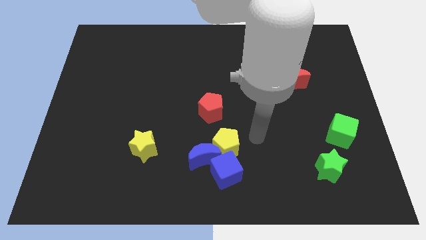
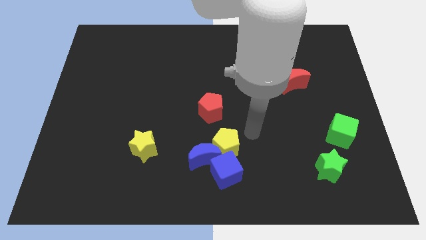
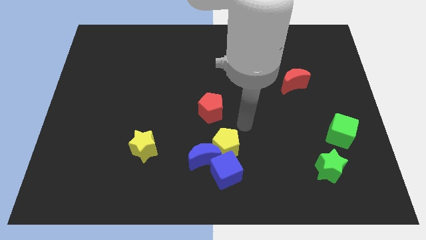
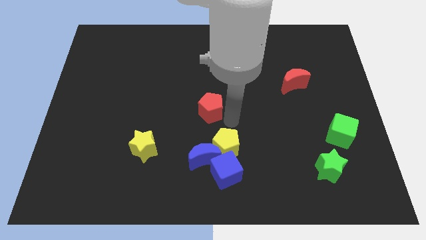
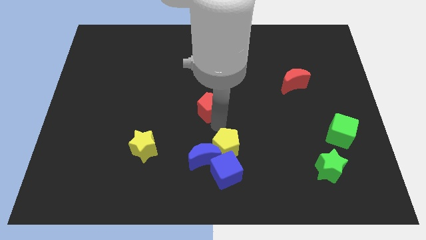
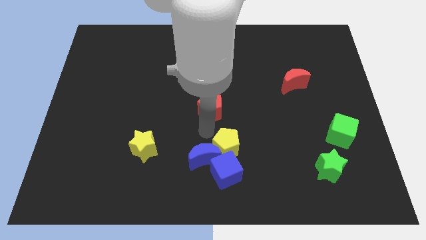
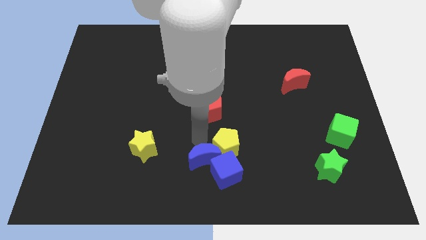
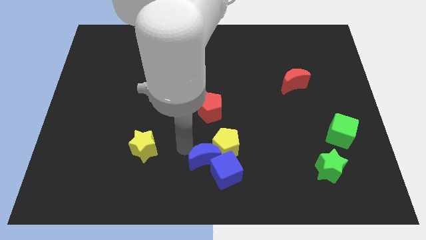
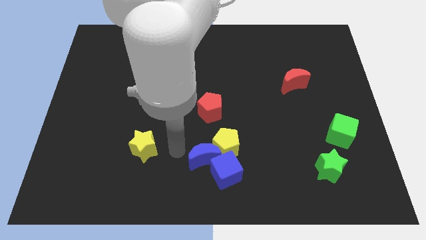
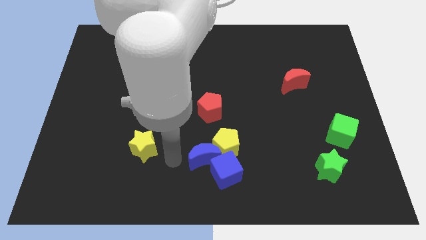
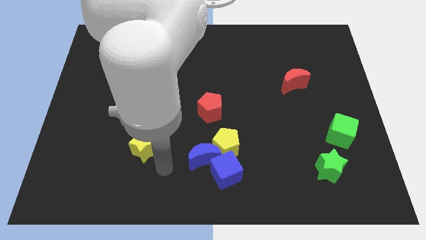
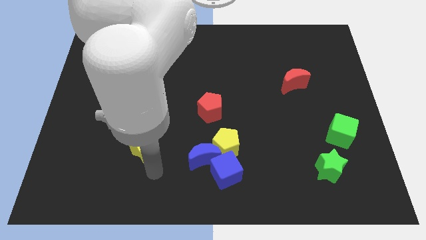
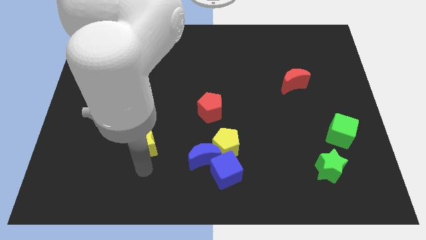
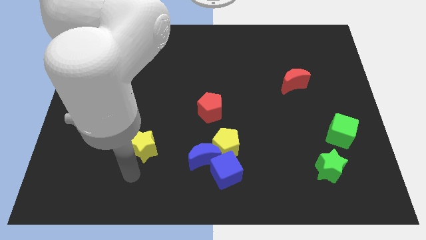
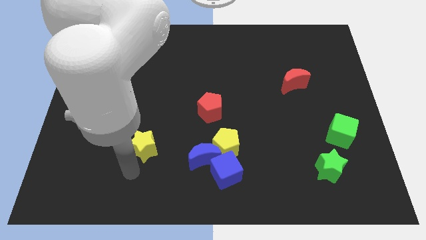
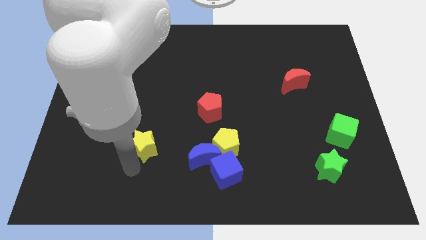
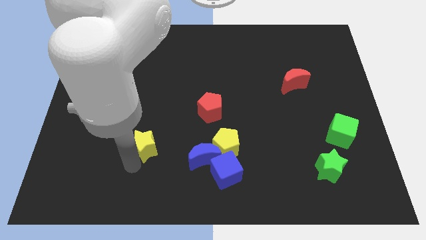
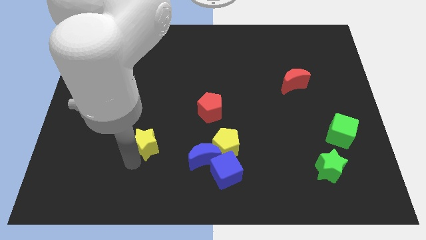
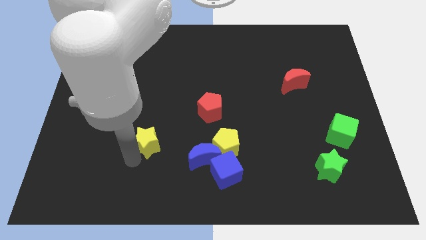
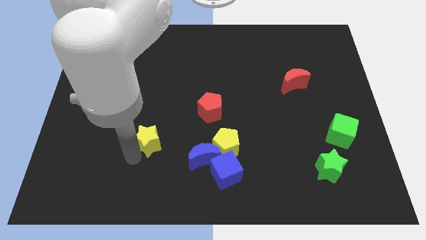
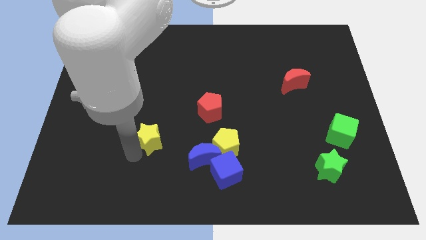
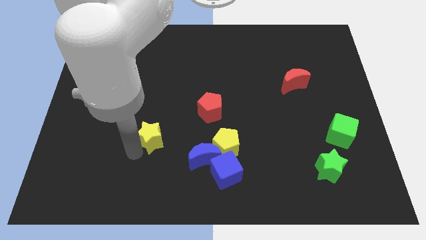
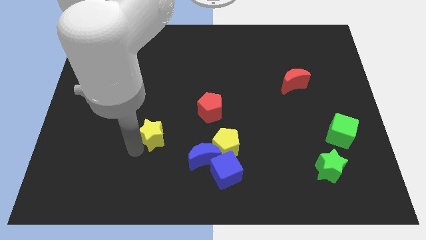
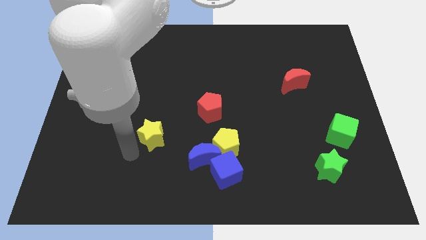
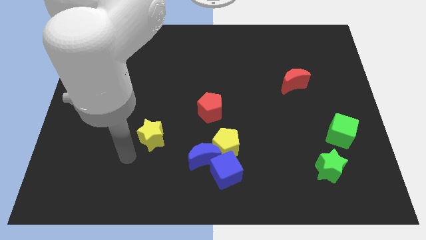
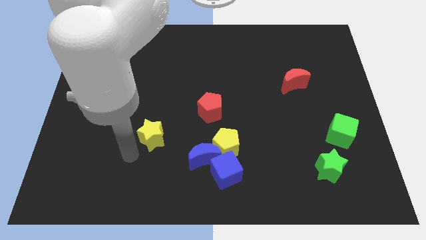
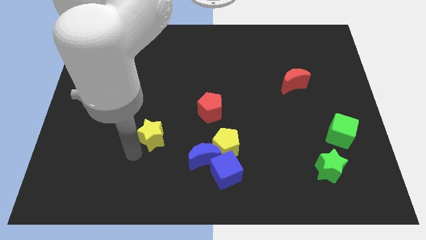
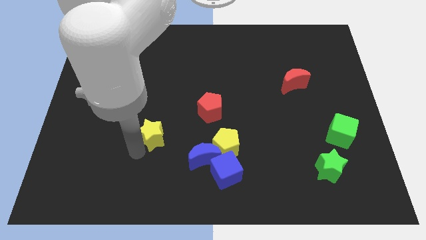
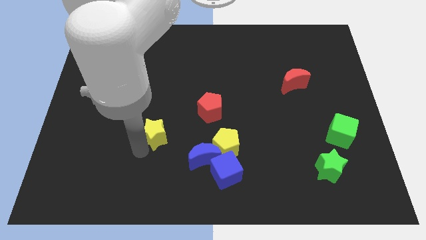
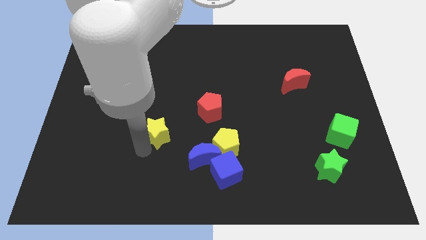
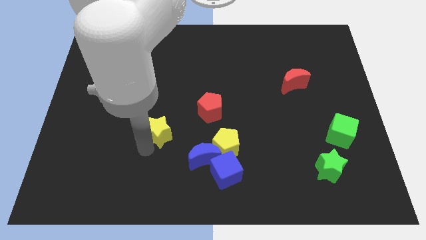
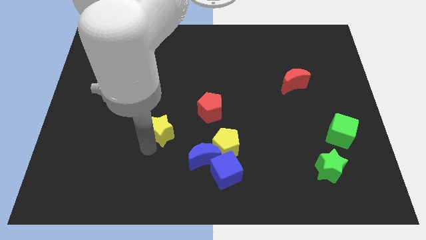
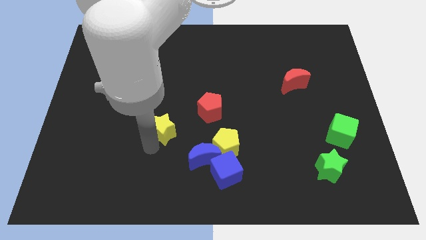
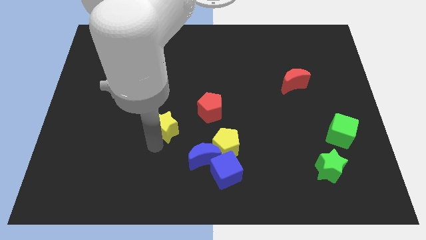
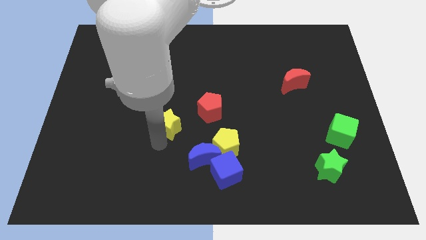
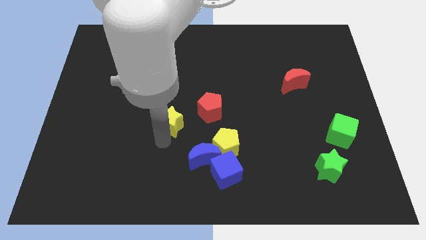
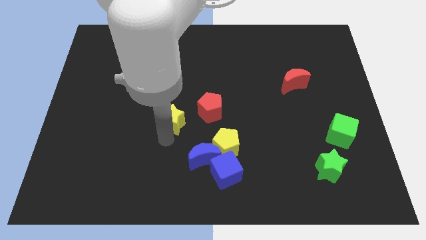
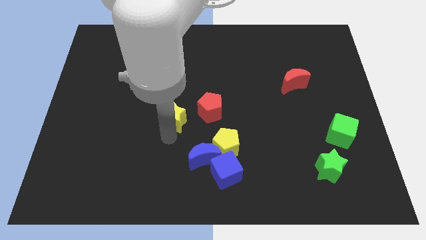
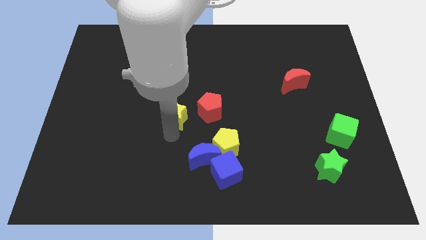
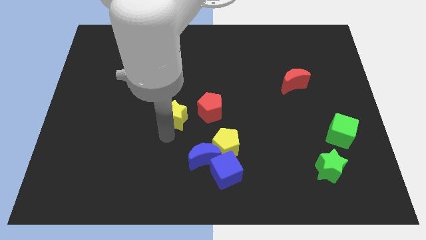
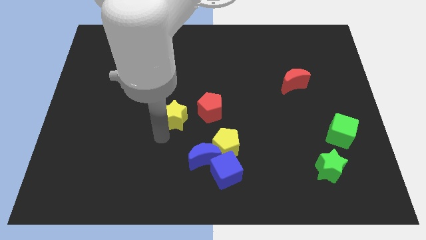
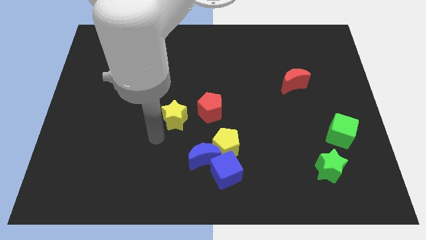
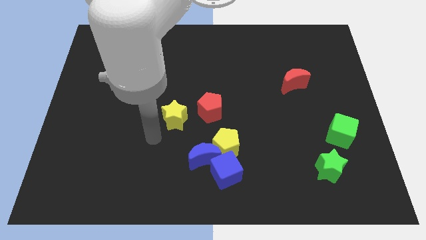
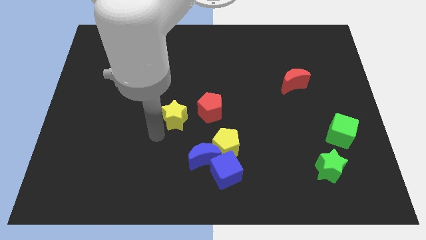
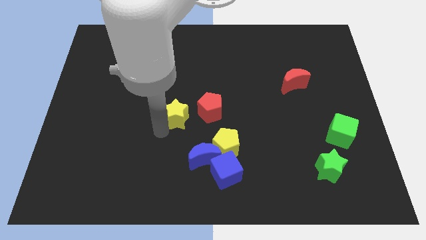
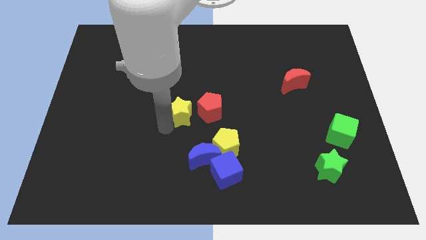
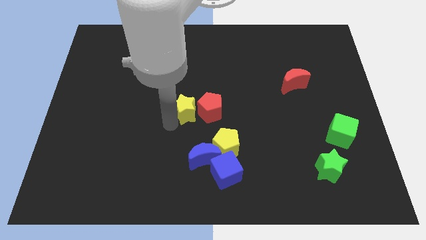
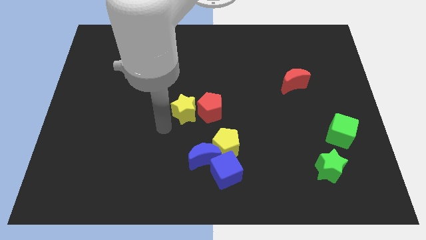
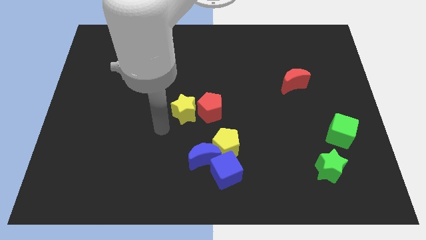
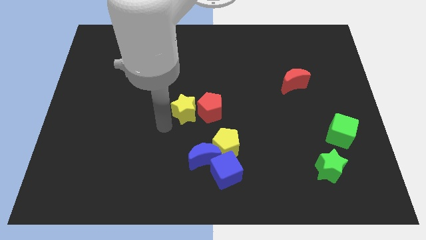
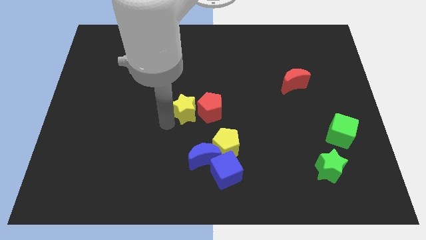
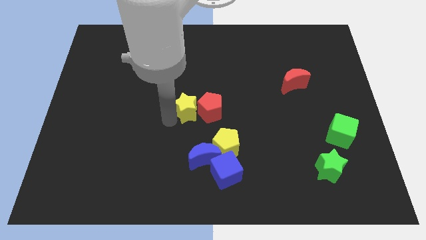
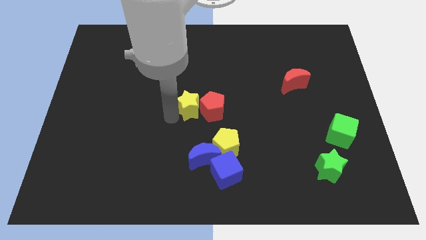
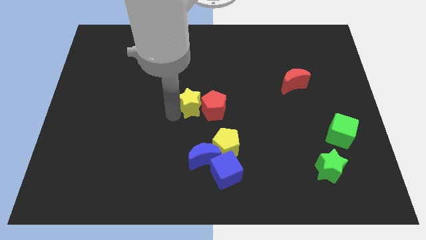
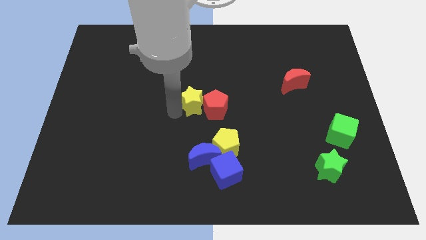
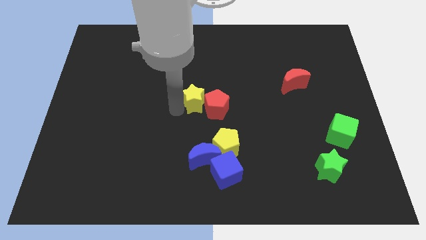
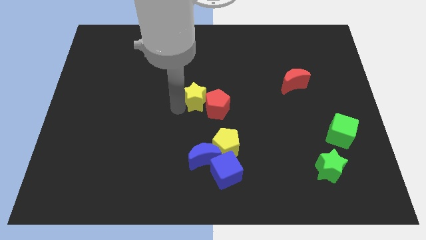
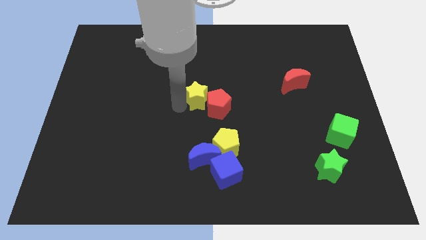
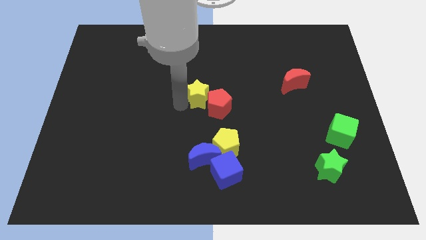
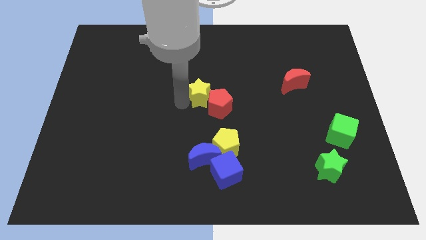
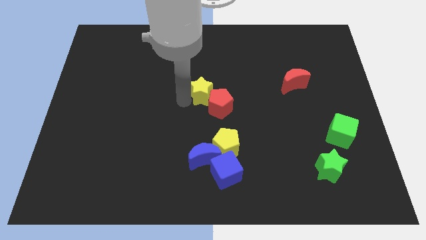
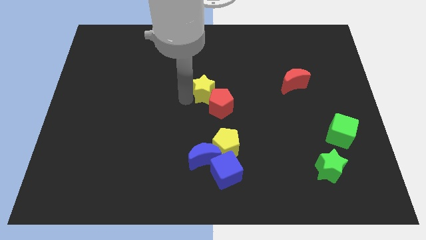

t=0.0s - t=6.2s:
slide the yellow star up and right

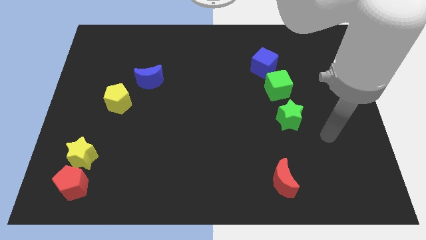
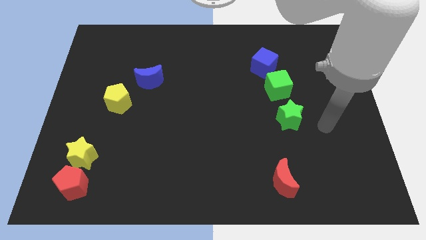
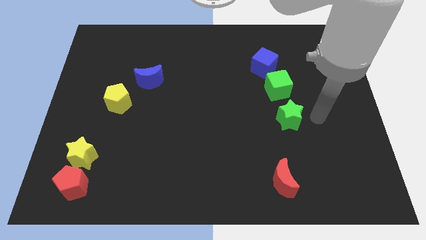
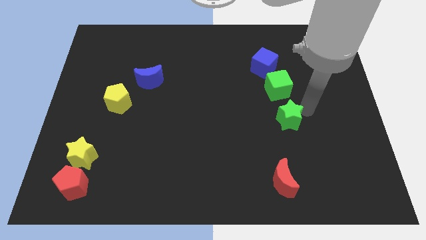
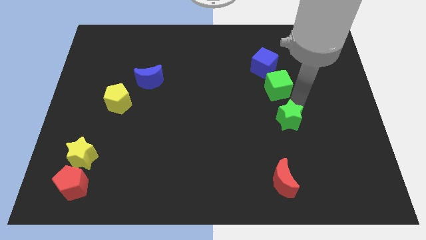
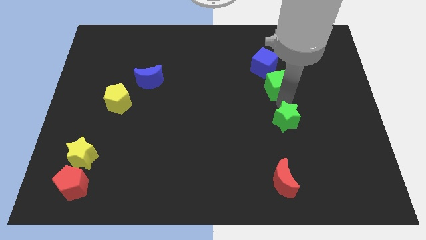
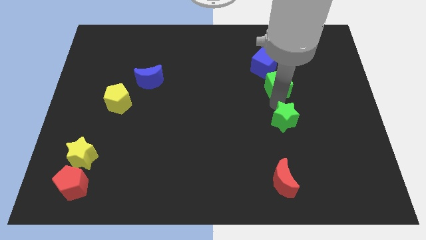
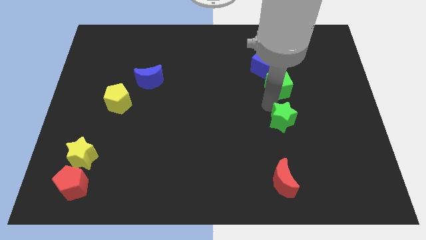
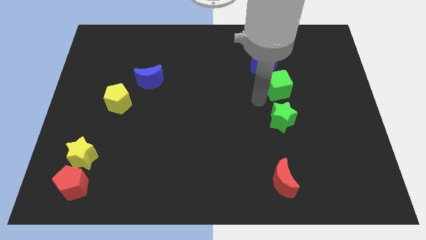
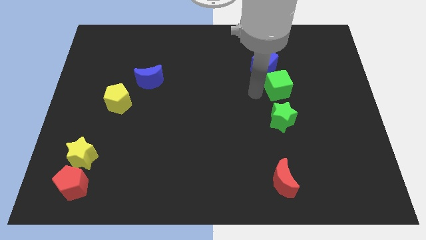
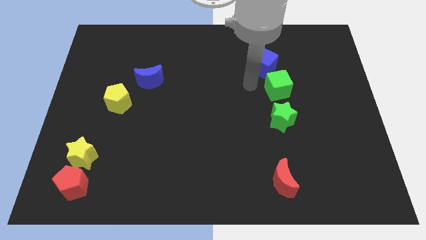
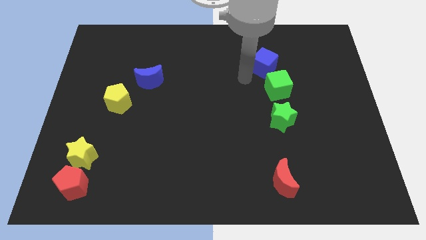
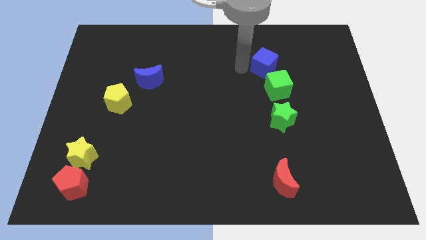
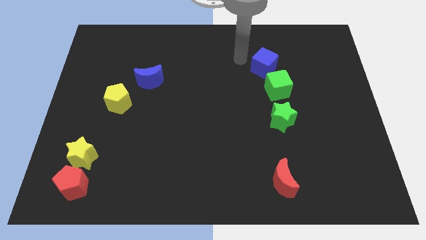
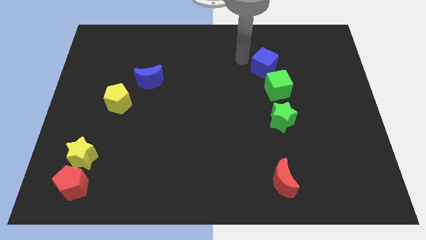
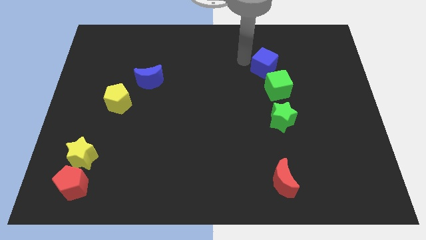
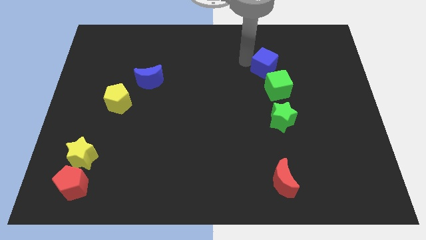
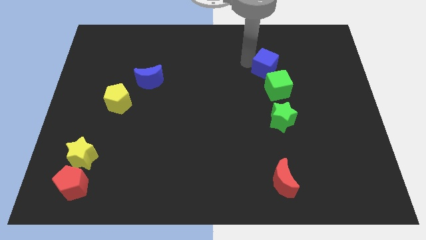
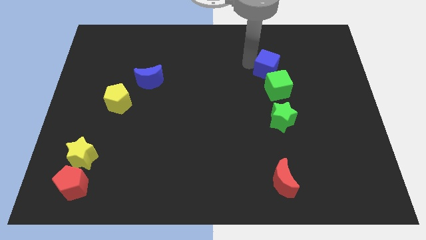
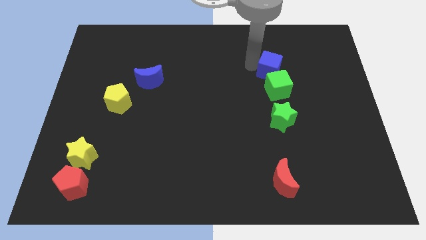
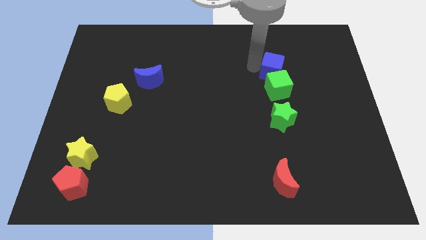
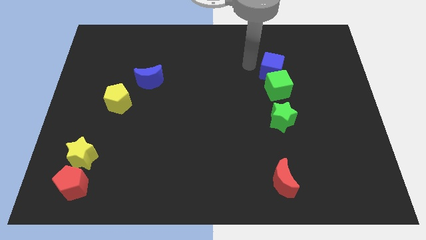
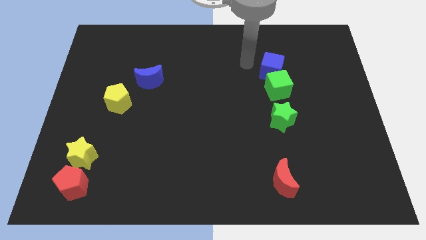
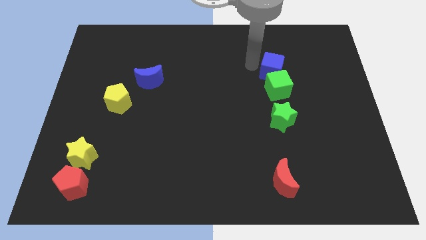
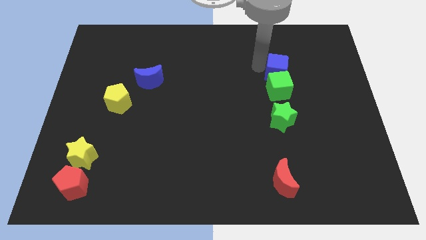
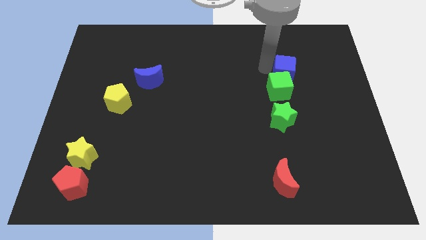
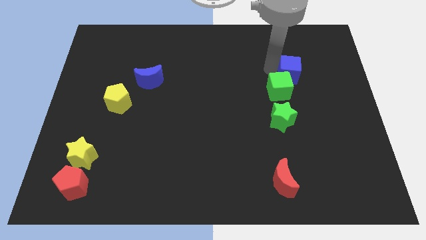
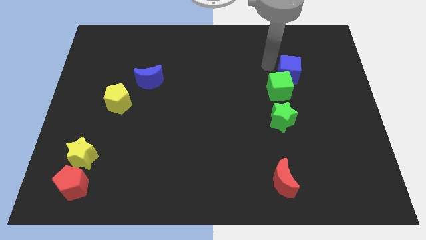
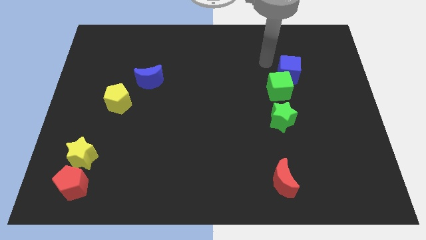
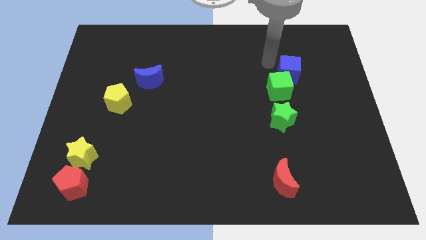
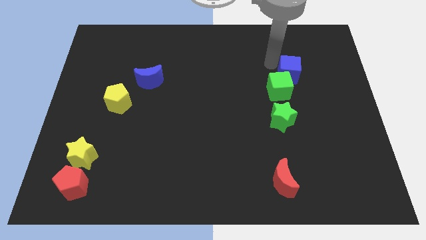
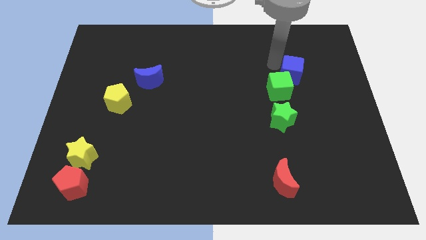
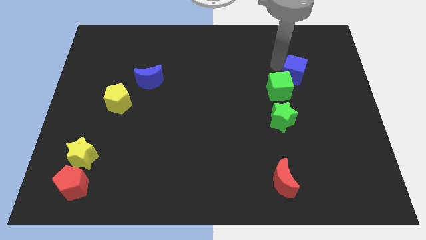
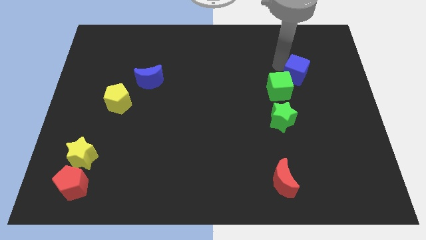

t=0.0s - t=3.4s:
move the blue cube down and to the right diagonally a little
